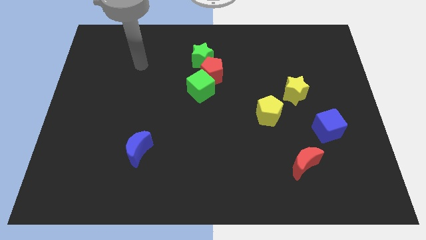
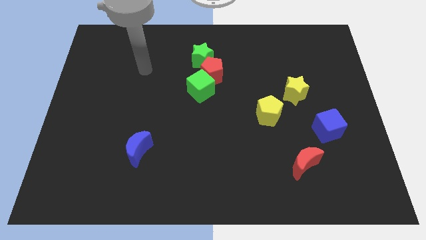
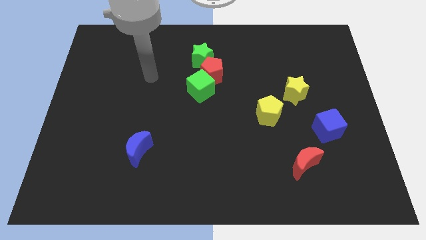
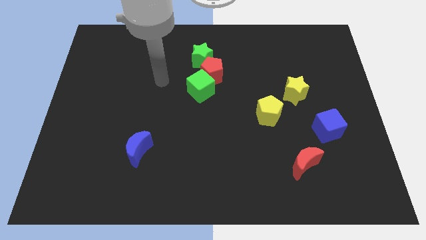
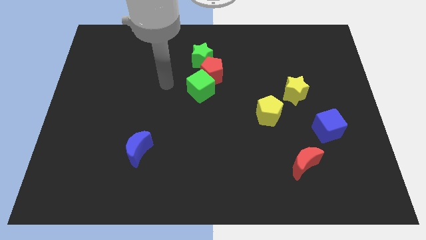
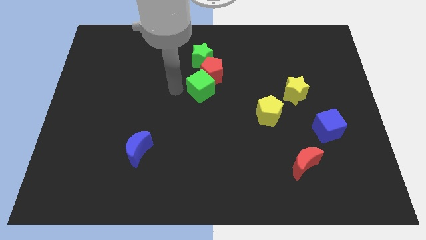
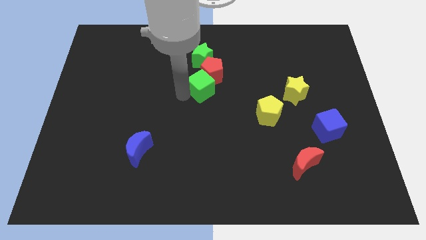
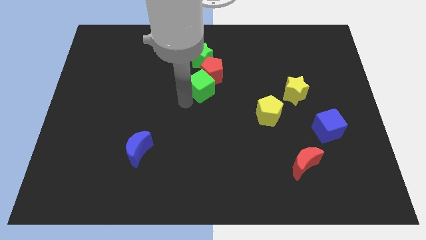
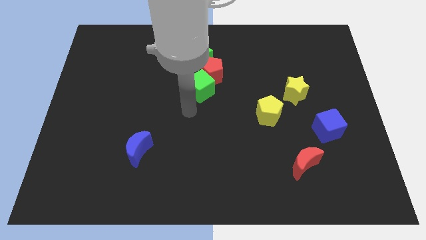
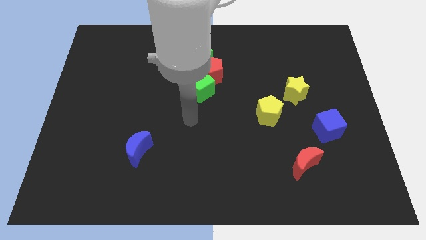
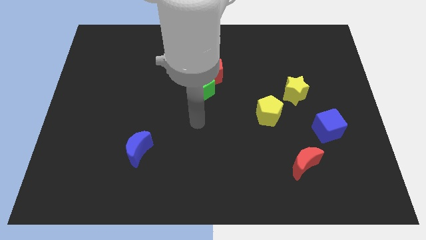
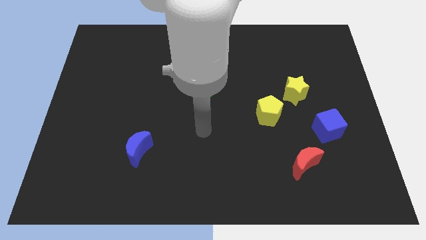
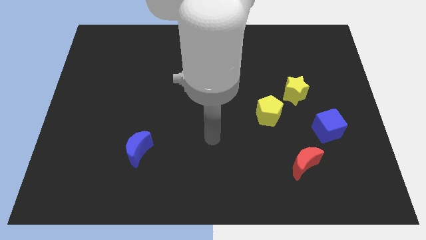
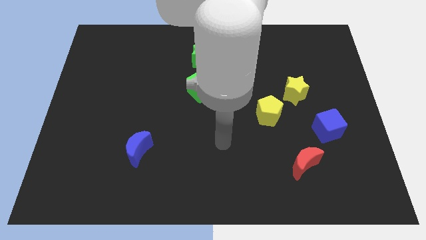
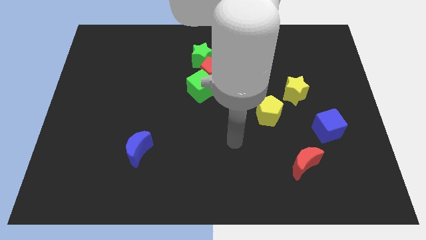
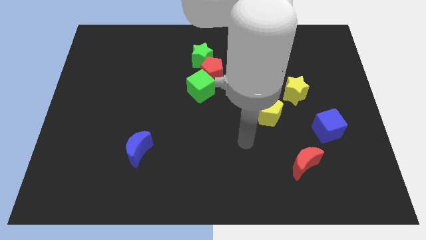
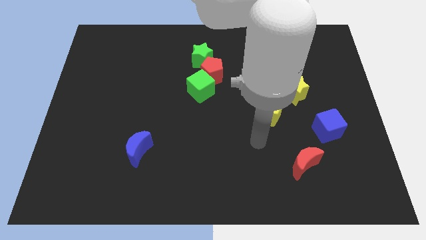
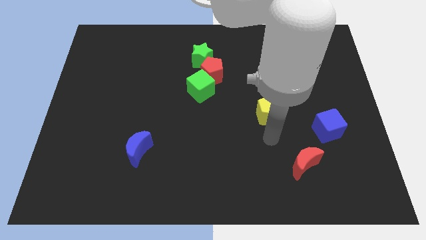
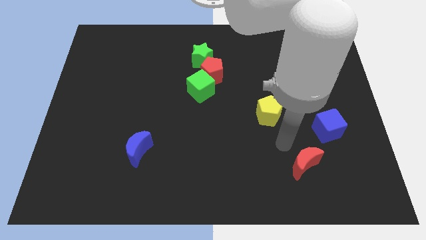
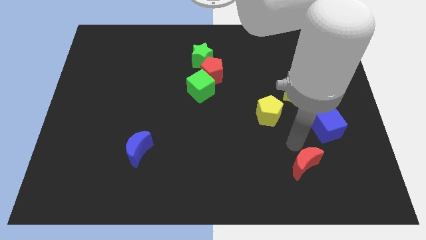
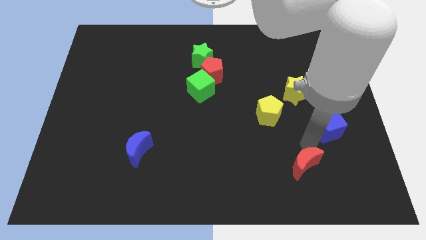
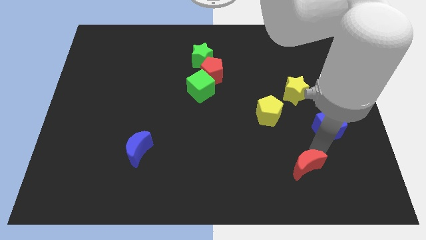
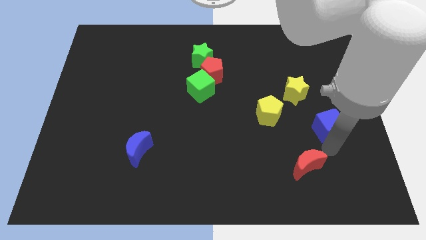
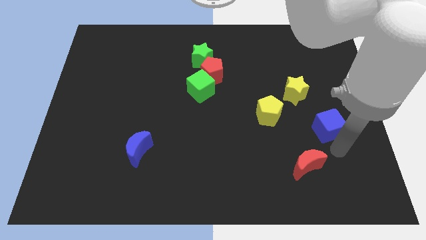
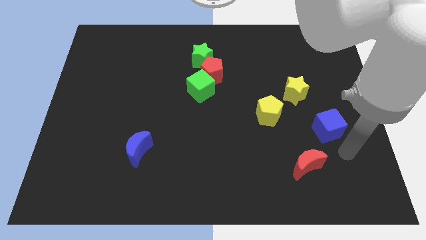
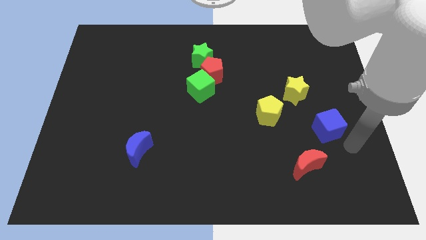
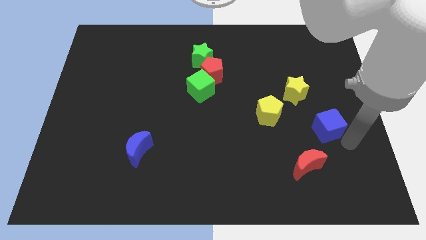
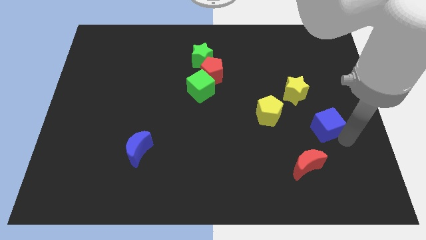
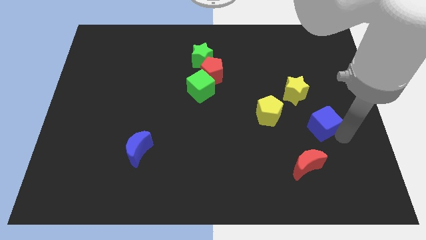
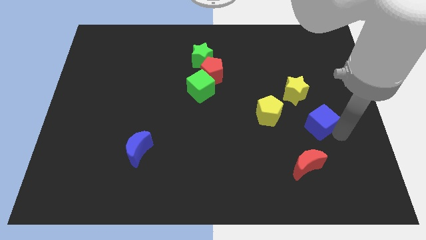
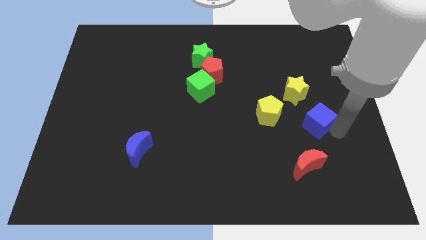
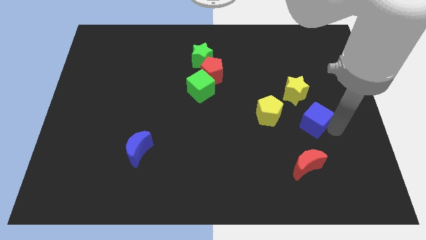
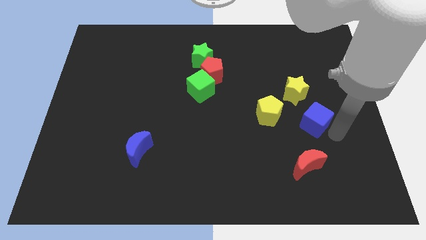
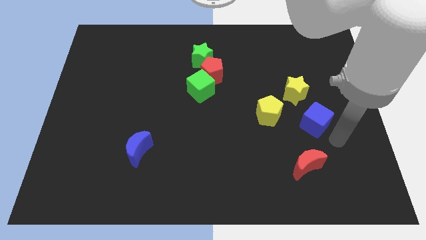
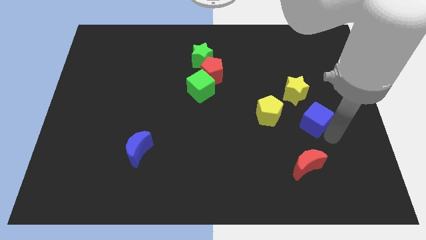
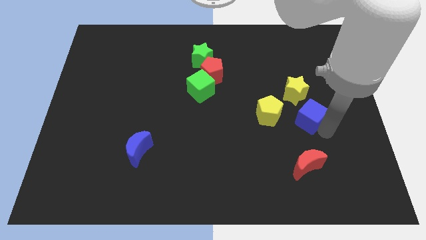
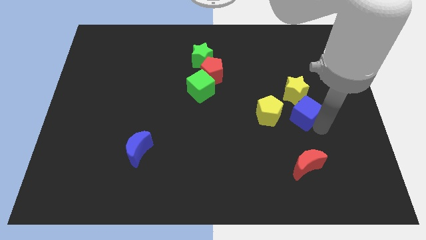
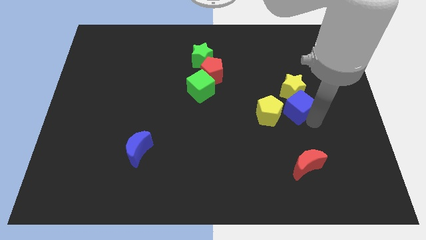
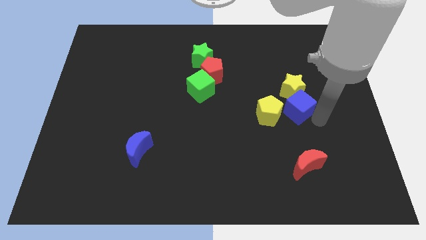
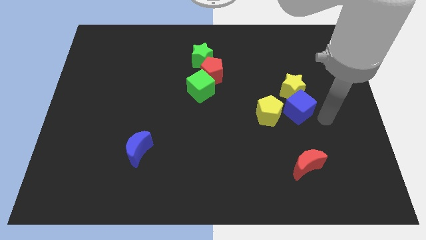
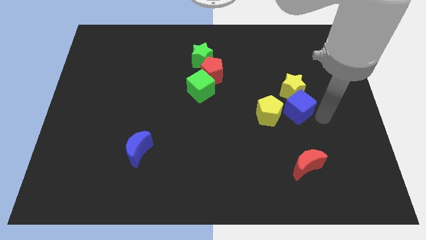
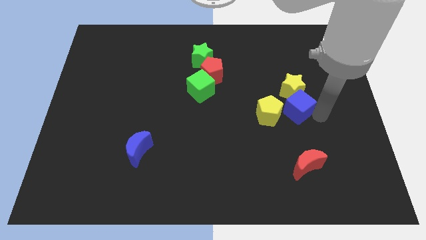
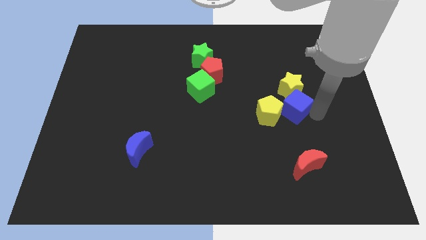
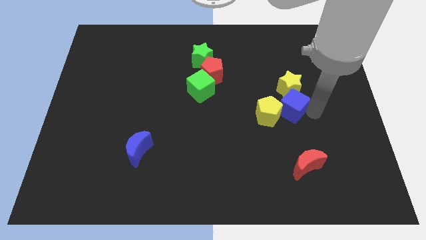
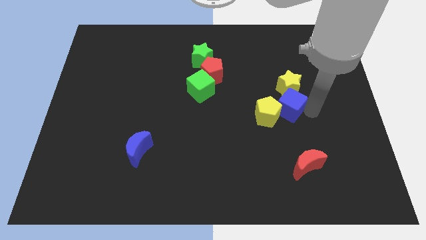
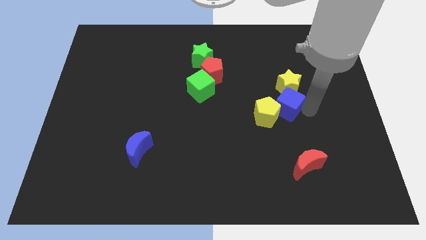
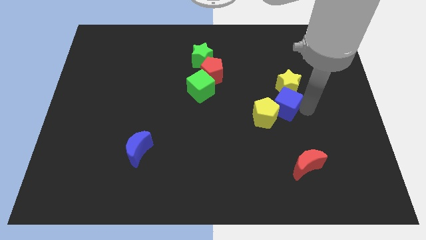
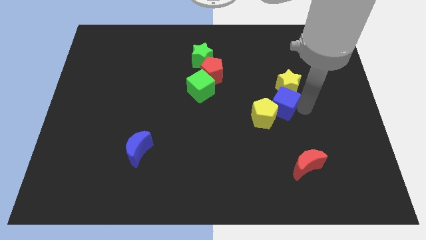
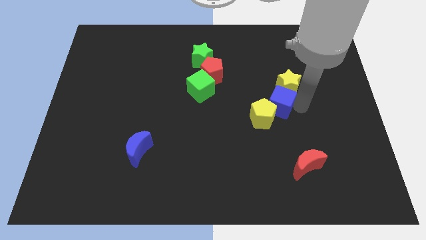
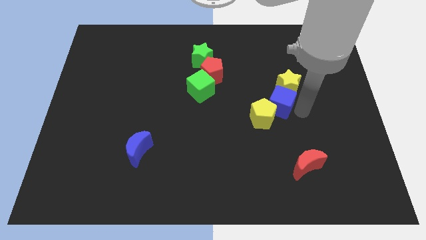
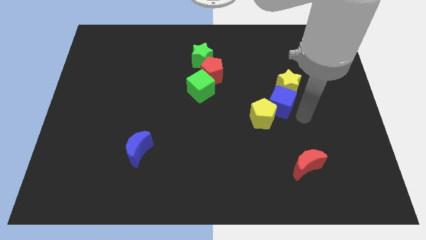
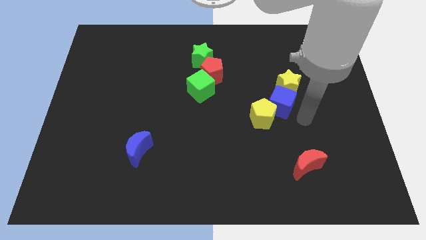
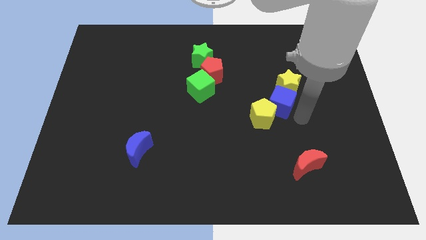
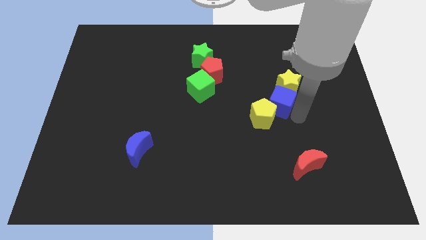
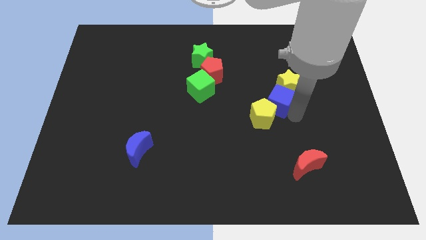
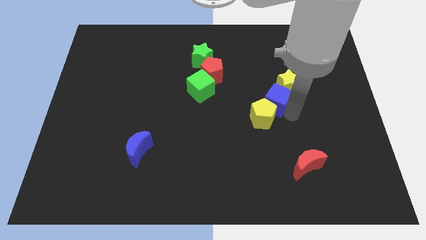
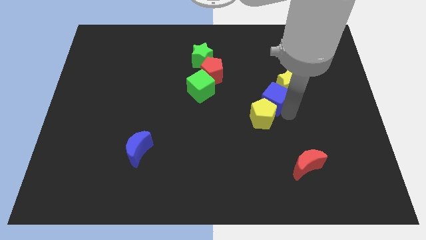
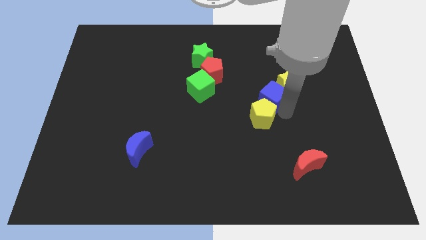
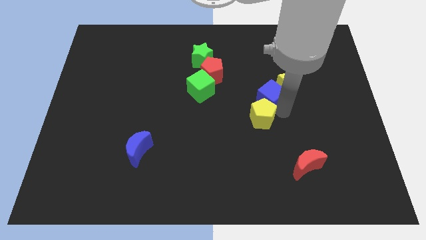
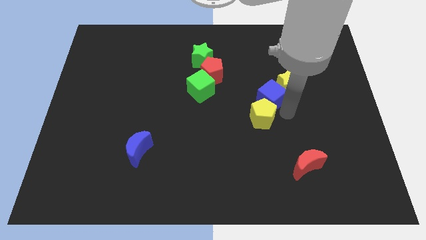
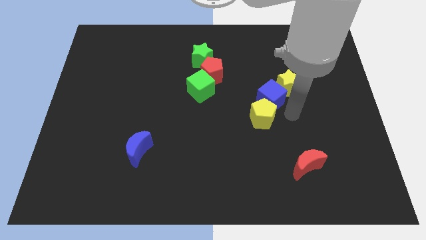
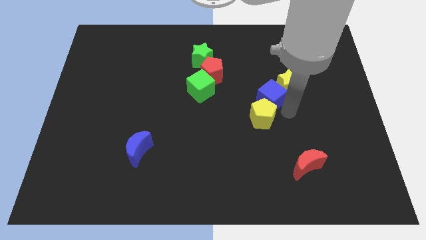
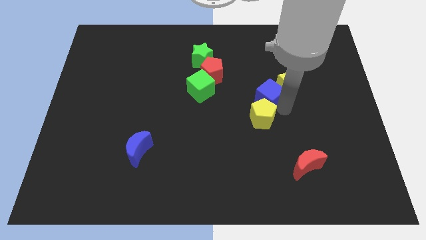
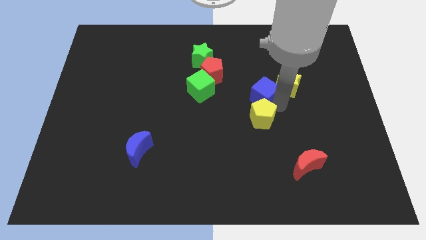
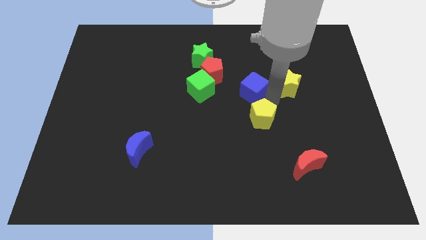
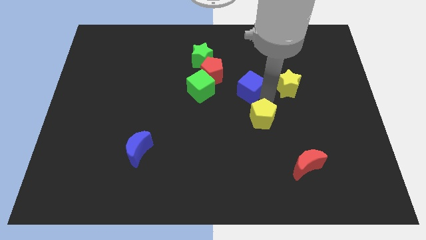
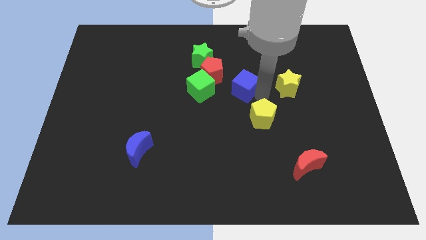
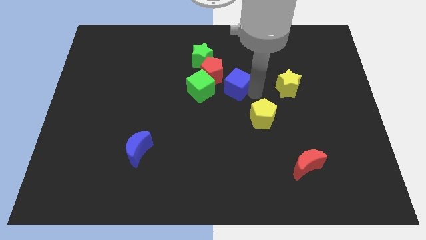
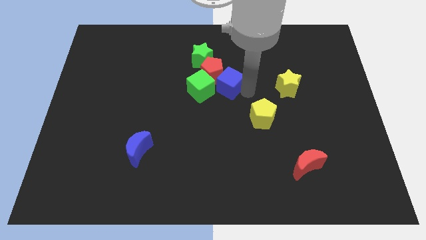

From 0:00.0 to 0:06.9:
move the blue cube diagonally down and to the right of the green star
